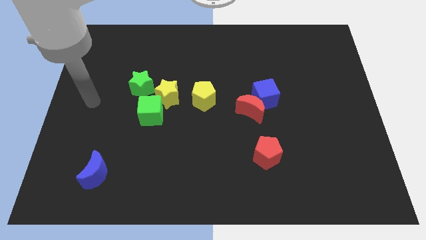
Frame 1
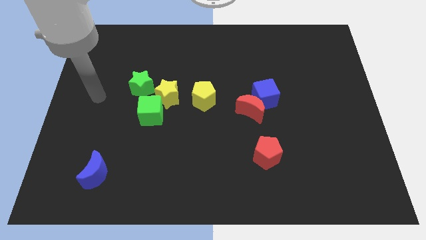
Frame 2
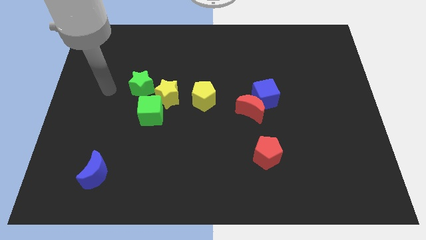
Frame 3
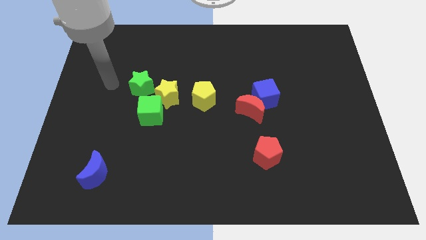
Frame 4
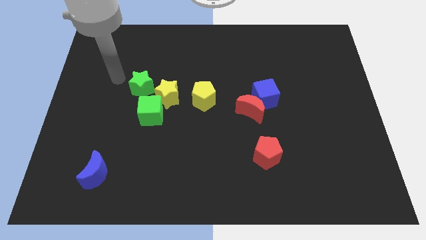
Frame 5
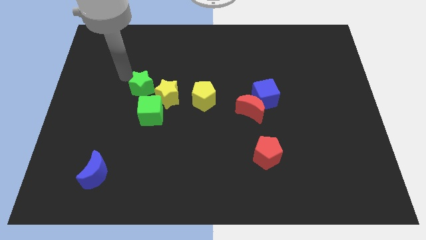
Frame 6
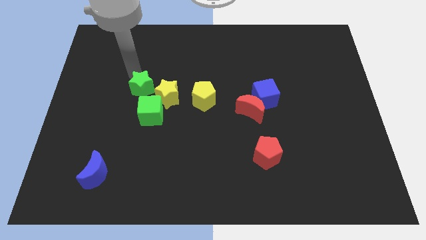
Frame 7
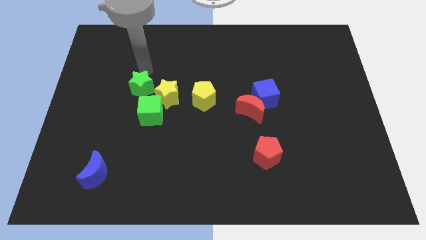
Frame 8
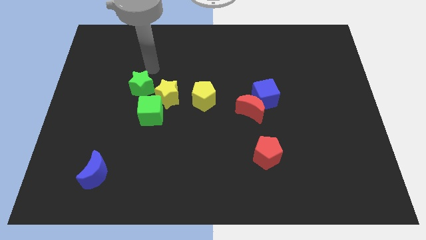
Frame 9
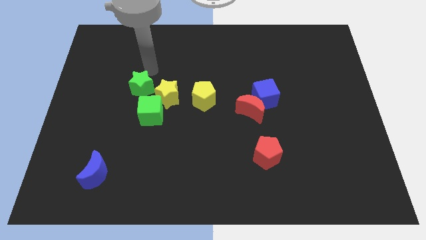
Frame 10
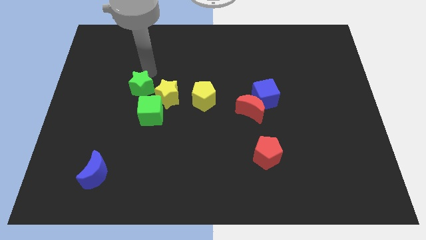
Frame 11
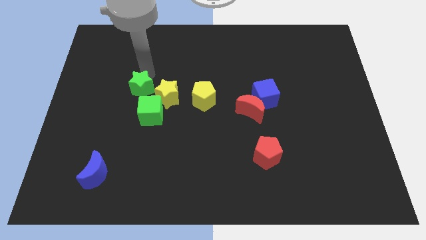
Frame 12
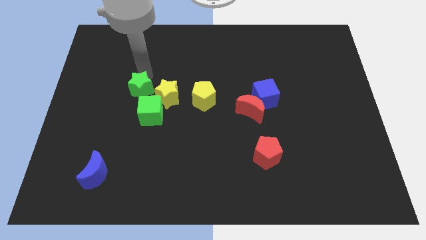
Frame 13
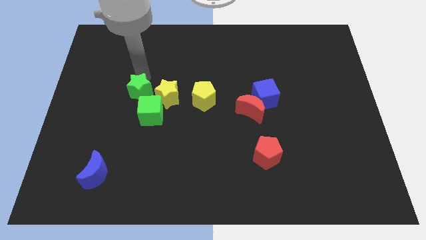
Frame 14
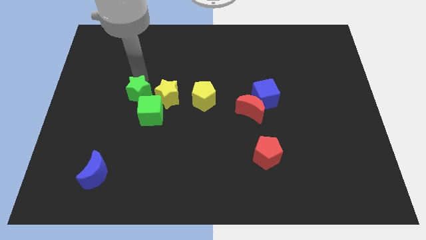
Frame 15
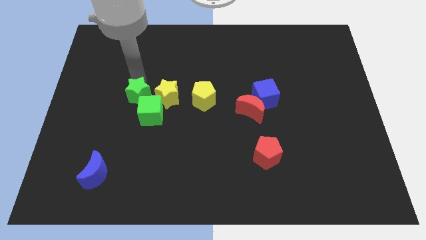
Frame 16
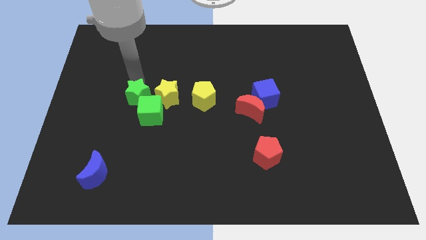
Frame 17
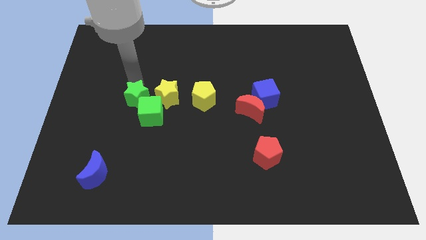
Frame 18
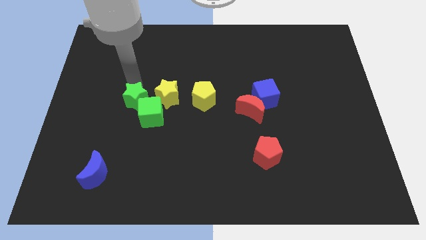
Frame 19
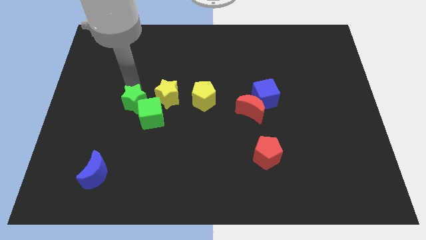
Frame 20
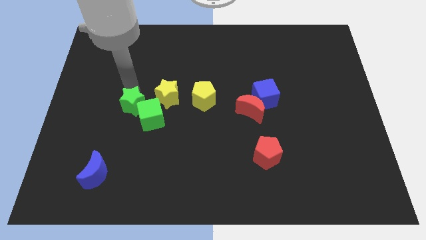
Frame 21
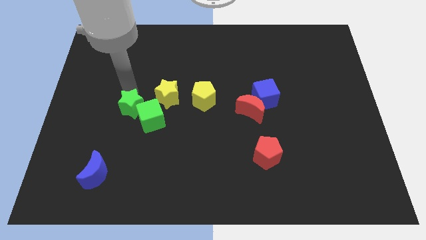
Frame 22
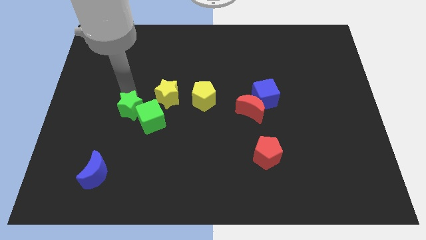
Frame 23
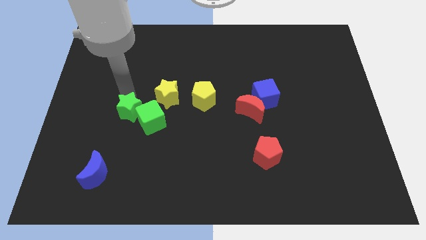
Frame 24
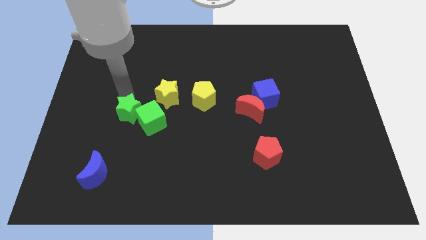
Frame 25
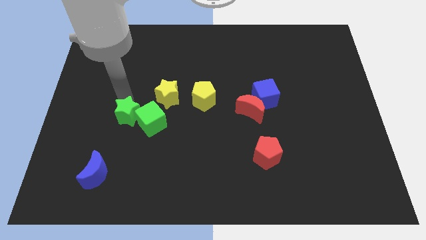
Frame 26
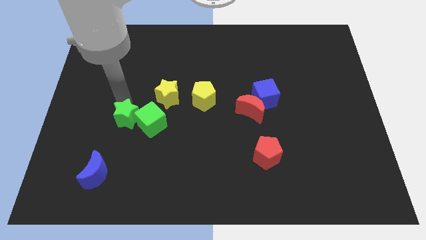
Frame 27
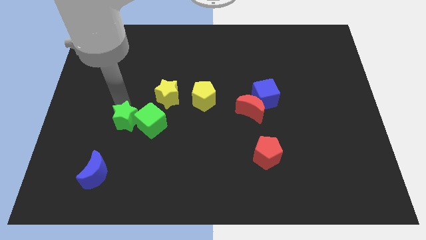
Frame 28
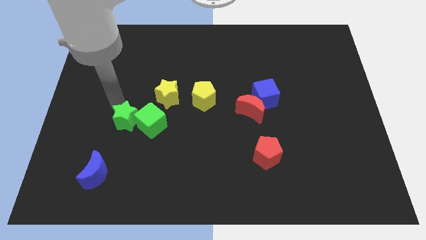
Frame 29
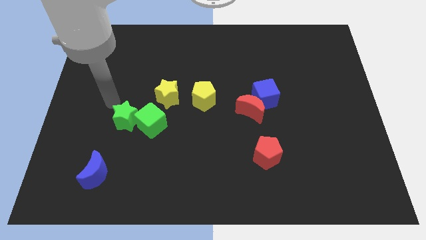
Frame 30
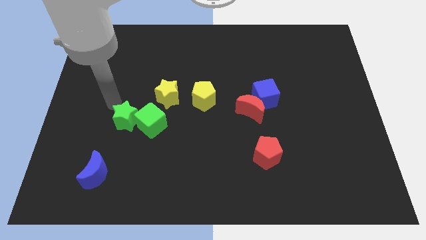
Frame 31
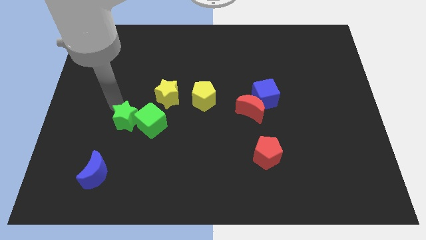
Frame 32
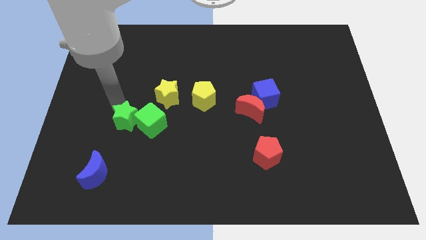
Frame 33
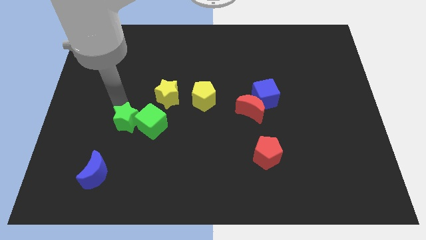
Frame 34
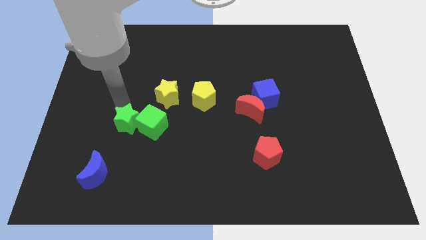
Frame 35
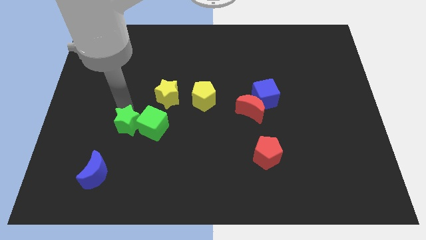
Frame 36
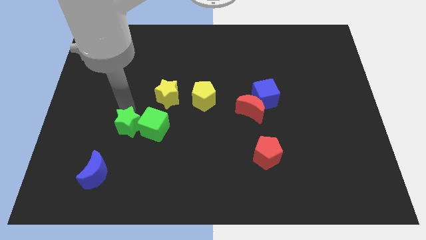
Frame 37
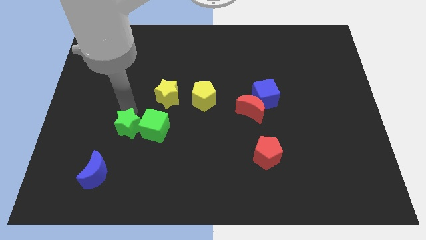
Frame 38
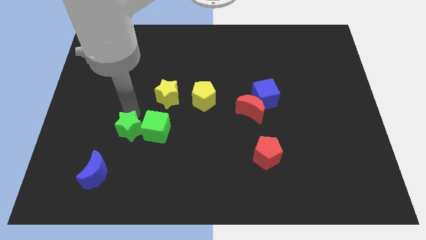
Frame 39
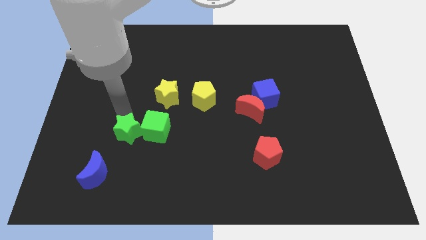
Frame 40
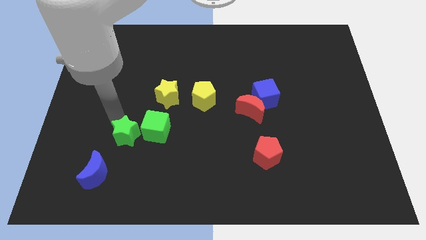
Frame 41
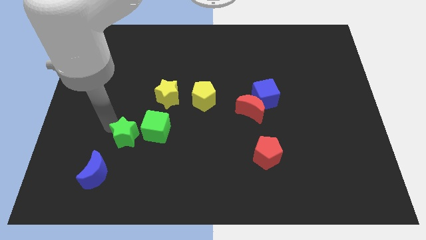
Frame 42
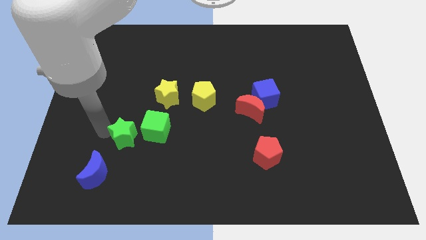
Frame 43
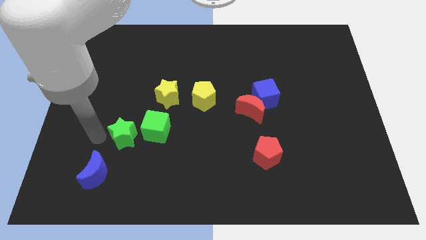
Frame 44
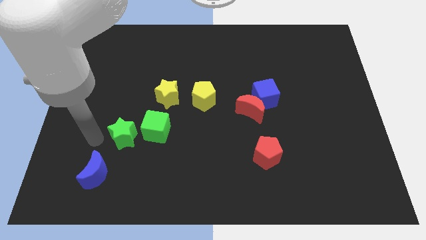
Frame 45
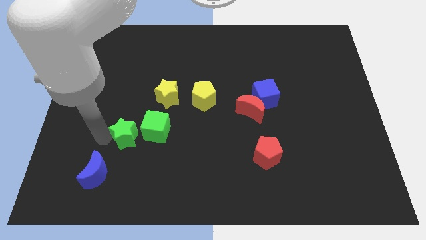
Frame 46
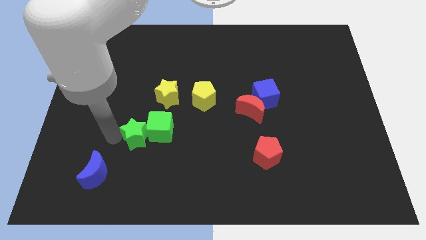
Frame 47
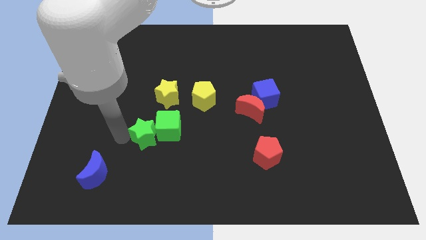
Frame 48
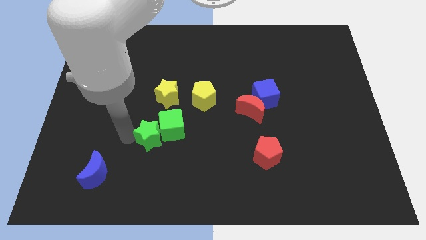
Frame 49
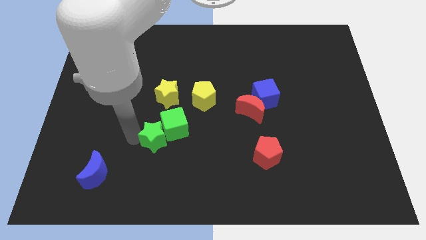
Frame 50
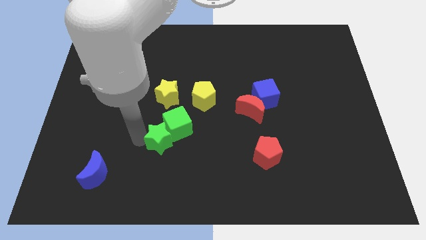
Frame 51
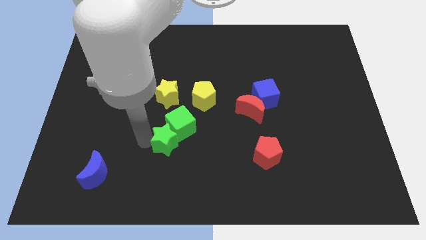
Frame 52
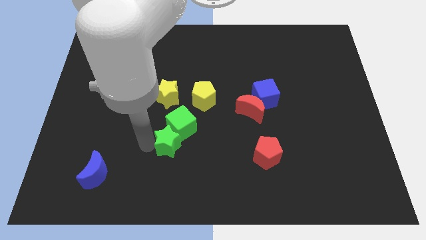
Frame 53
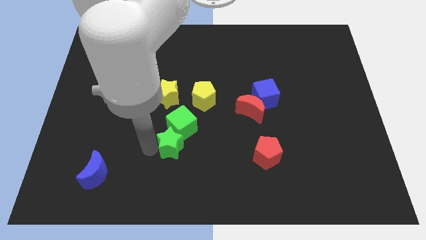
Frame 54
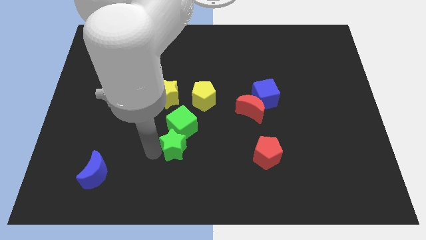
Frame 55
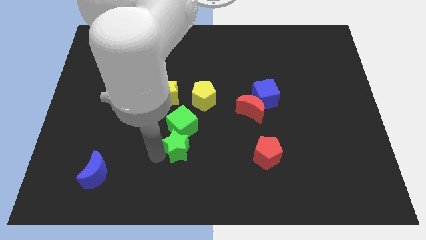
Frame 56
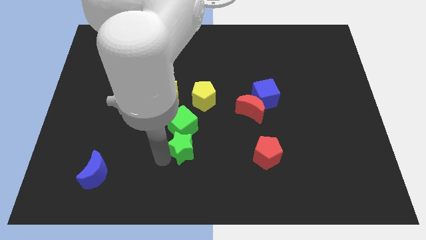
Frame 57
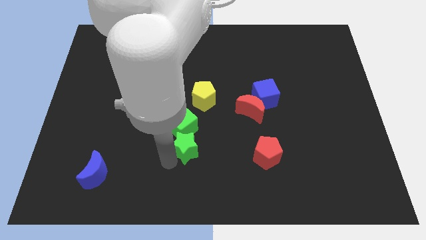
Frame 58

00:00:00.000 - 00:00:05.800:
put the green star to the bottom side of the yellow pentagon
